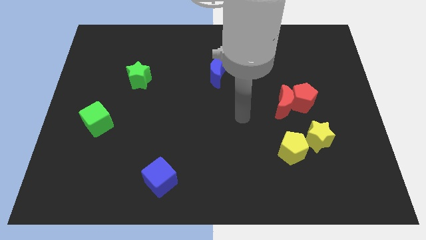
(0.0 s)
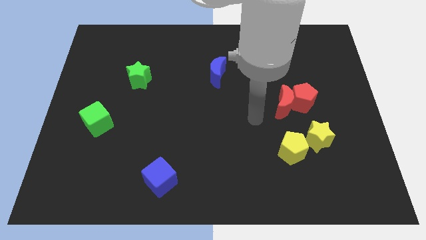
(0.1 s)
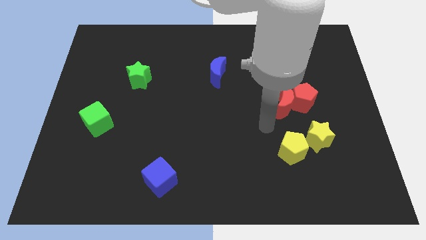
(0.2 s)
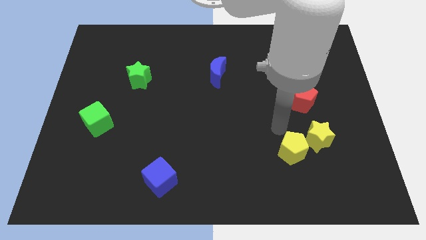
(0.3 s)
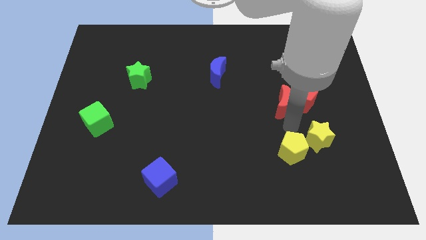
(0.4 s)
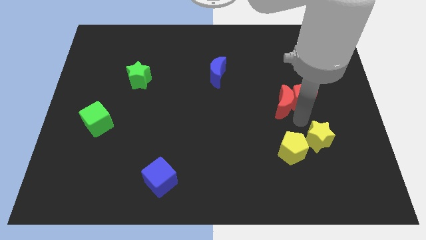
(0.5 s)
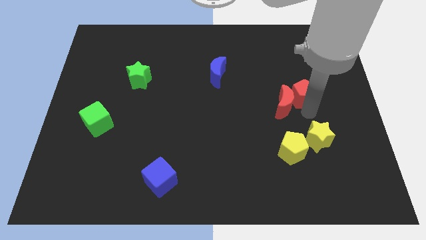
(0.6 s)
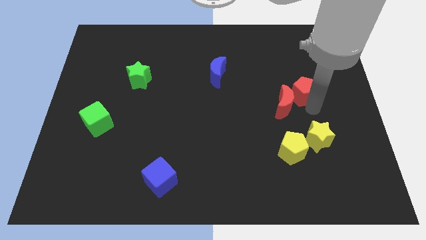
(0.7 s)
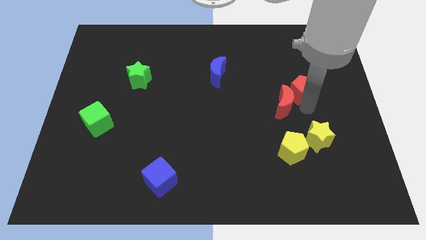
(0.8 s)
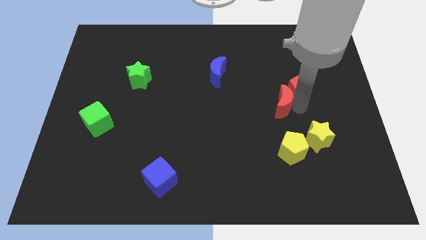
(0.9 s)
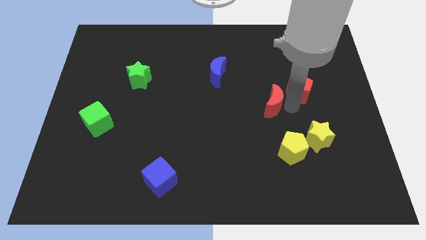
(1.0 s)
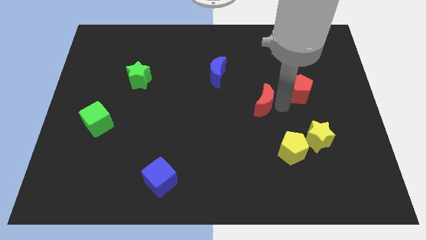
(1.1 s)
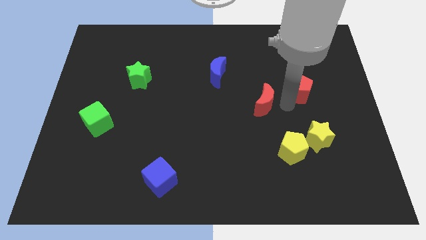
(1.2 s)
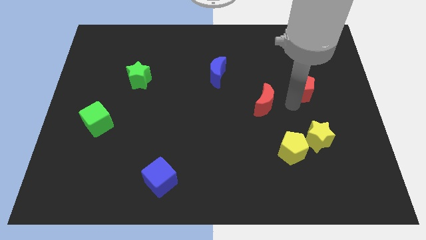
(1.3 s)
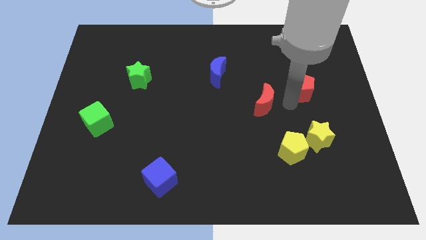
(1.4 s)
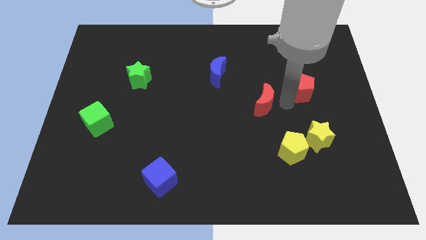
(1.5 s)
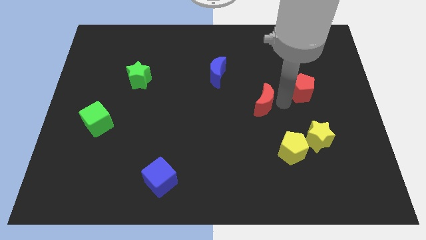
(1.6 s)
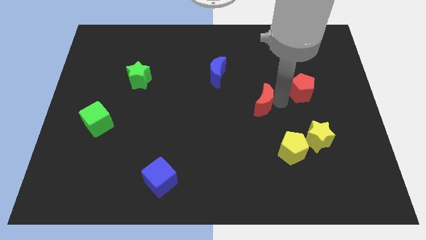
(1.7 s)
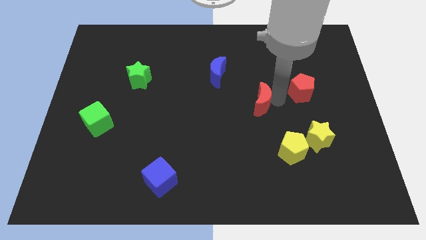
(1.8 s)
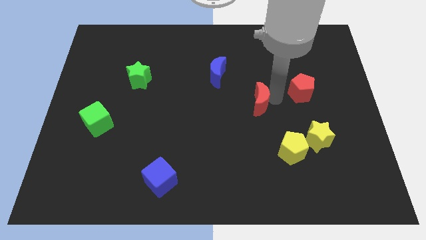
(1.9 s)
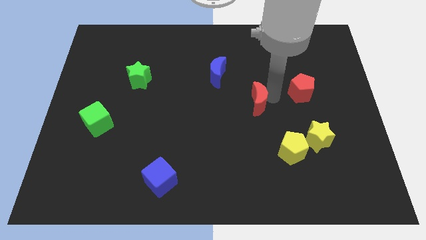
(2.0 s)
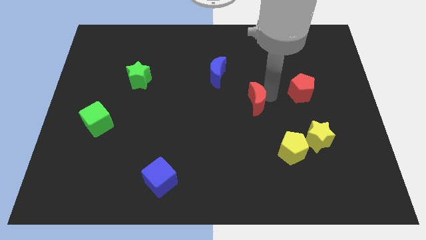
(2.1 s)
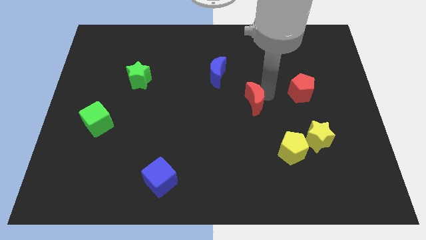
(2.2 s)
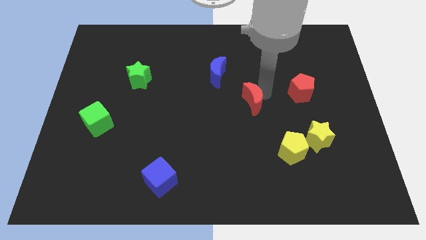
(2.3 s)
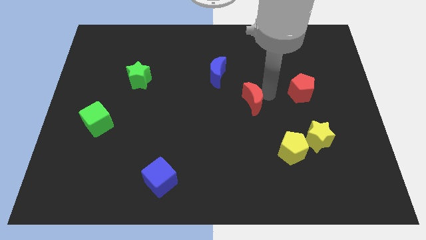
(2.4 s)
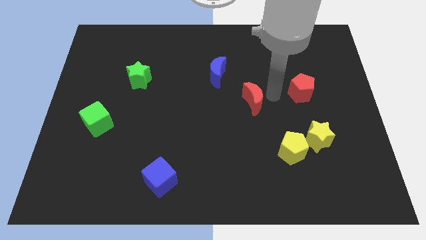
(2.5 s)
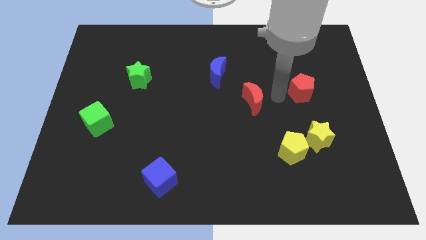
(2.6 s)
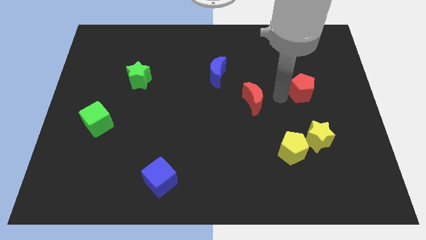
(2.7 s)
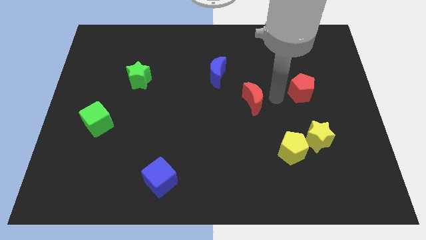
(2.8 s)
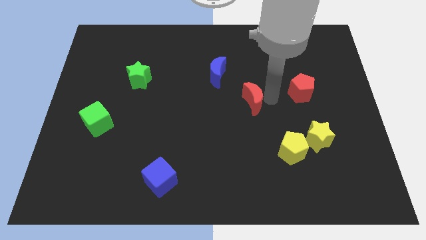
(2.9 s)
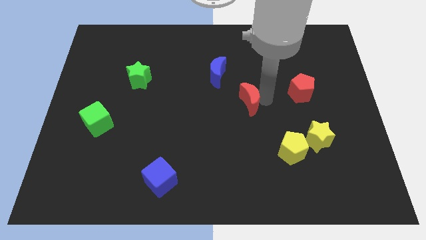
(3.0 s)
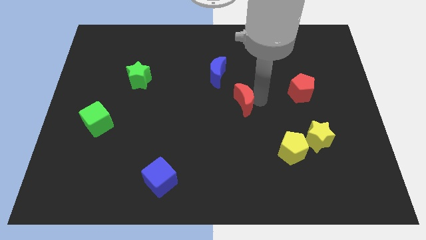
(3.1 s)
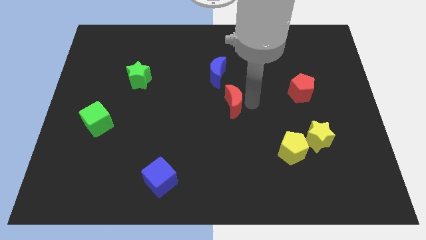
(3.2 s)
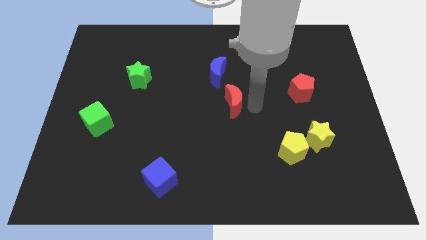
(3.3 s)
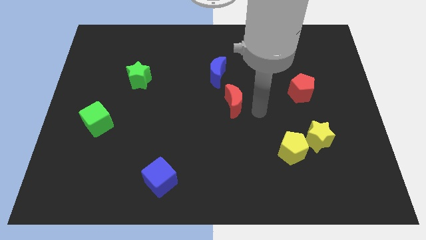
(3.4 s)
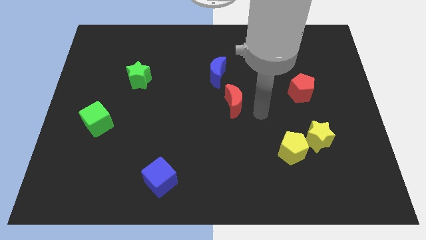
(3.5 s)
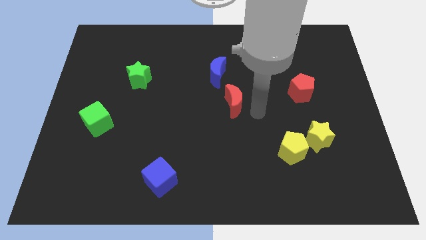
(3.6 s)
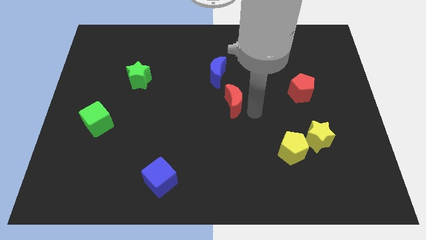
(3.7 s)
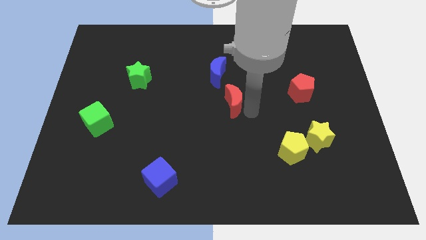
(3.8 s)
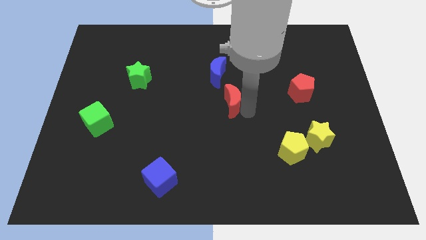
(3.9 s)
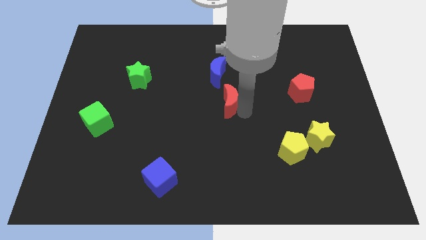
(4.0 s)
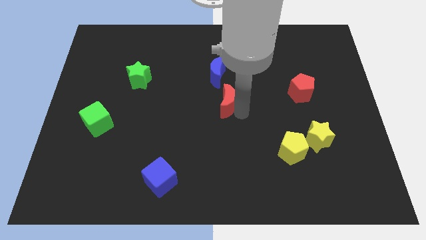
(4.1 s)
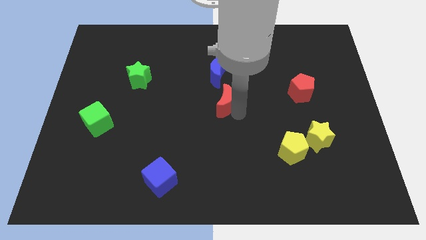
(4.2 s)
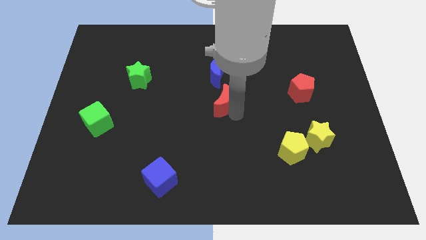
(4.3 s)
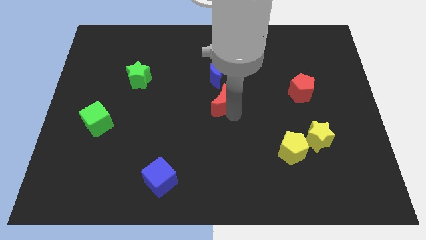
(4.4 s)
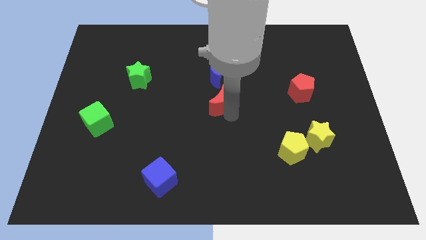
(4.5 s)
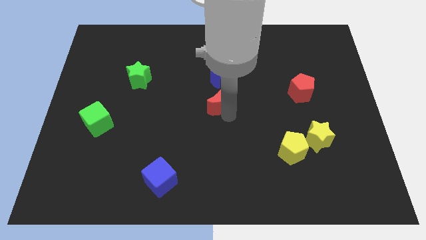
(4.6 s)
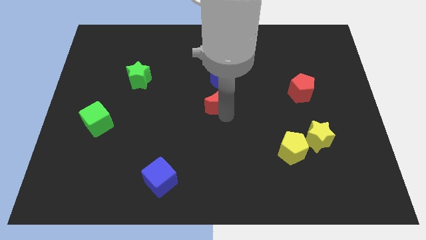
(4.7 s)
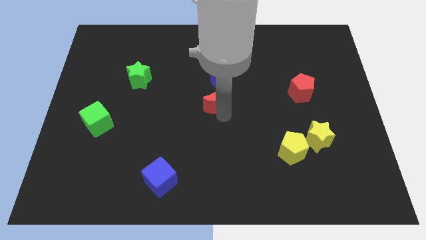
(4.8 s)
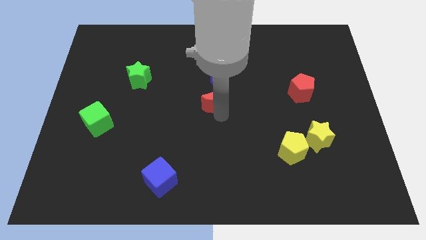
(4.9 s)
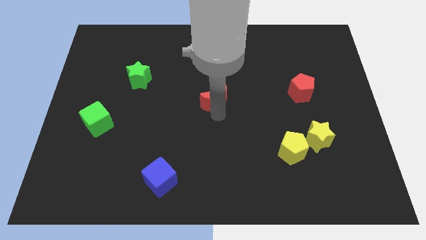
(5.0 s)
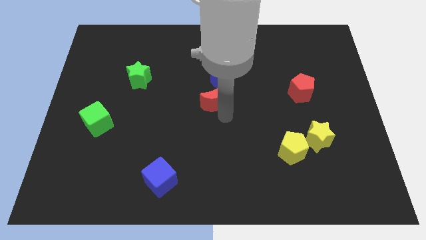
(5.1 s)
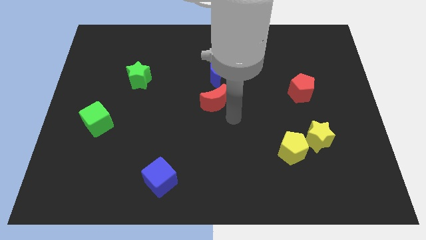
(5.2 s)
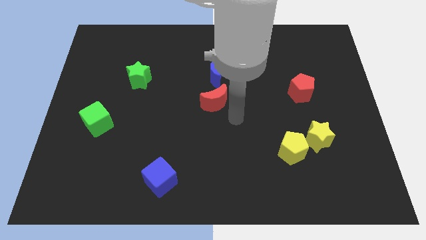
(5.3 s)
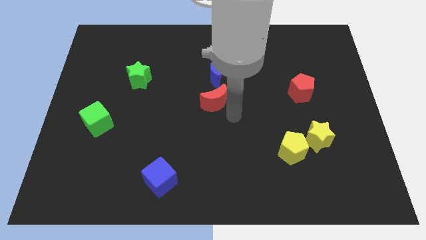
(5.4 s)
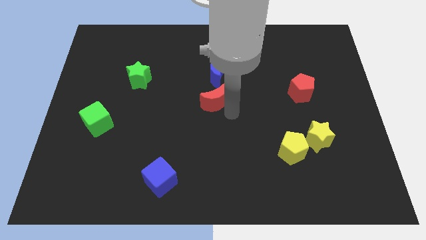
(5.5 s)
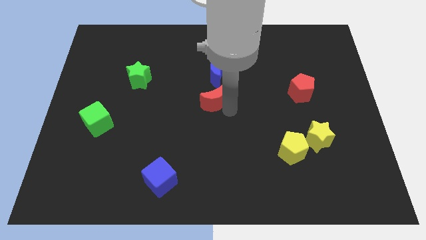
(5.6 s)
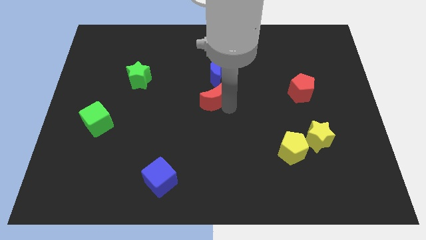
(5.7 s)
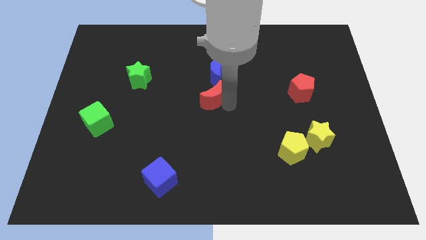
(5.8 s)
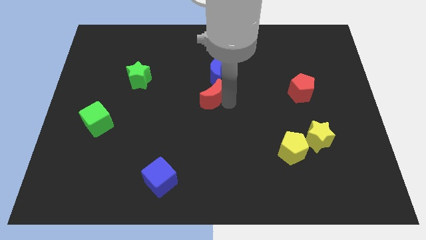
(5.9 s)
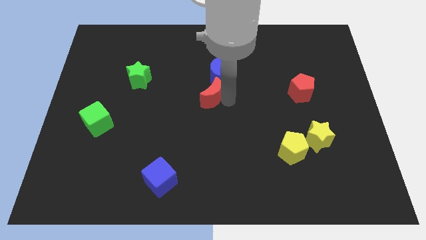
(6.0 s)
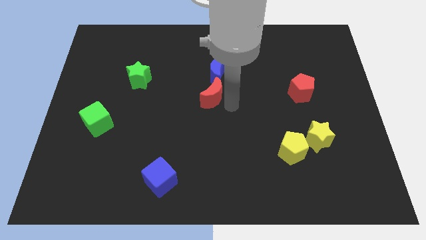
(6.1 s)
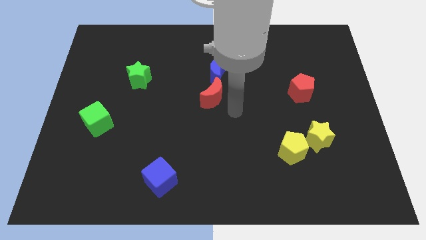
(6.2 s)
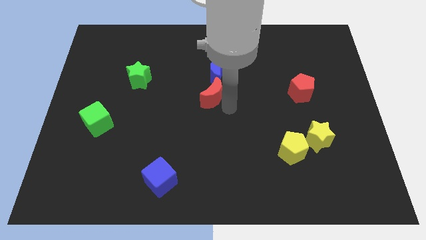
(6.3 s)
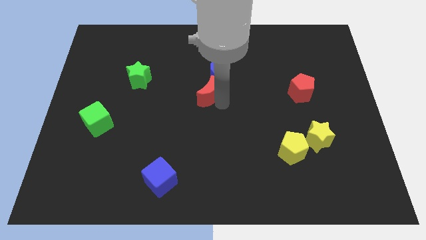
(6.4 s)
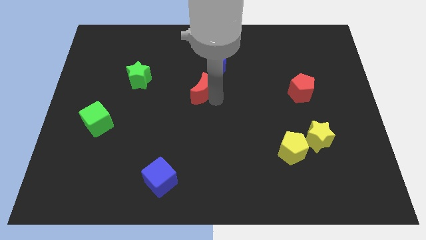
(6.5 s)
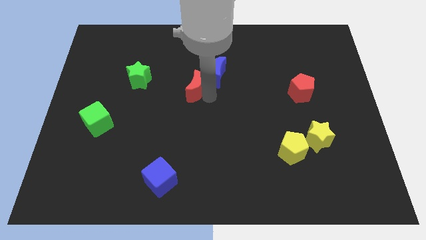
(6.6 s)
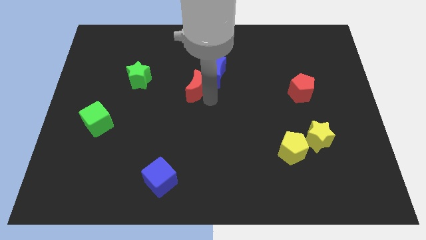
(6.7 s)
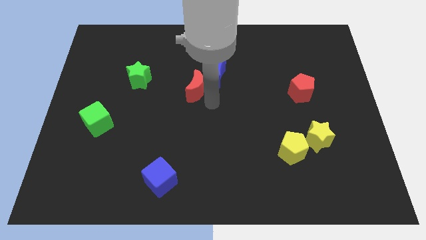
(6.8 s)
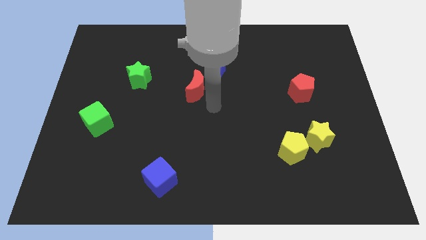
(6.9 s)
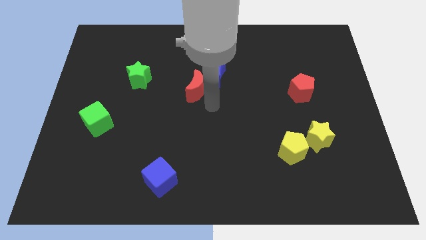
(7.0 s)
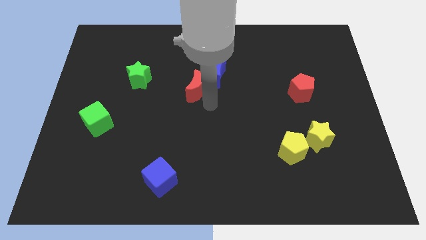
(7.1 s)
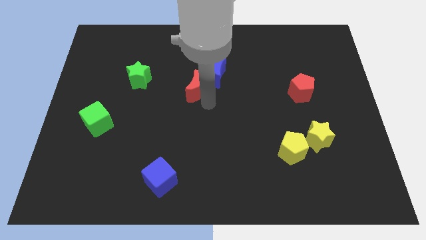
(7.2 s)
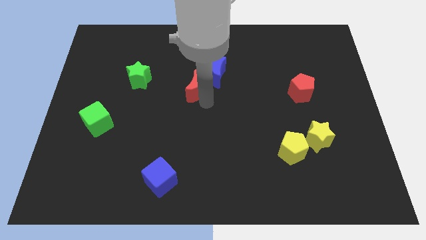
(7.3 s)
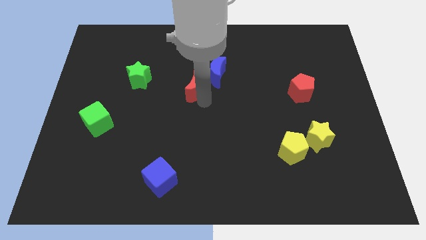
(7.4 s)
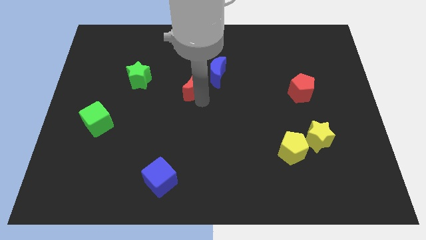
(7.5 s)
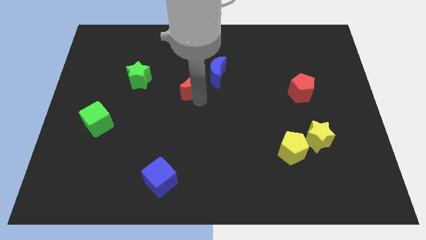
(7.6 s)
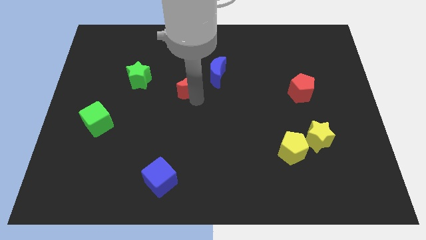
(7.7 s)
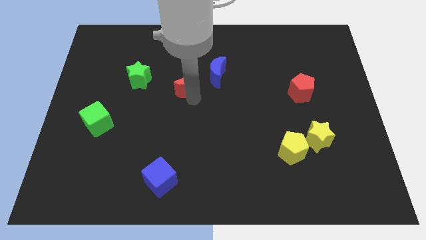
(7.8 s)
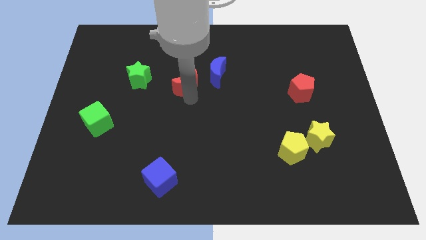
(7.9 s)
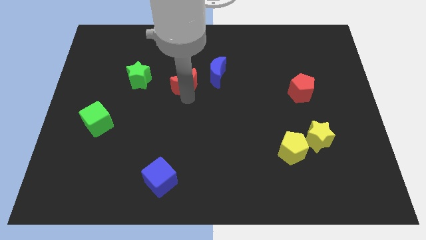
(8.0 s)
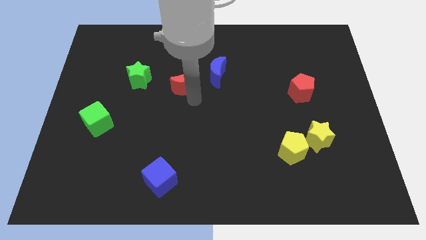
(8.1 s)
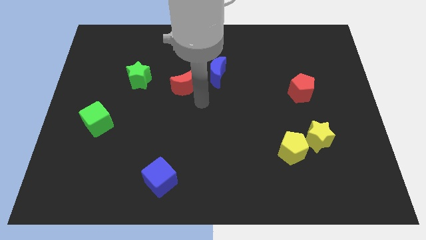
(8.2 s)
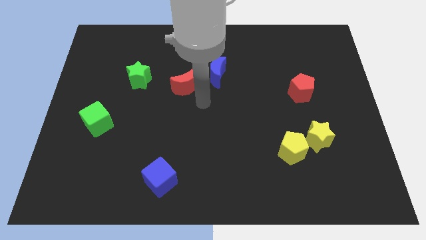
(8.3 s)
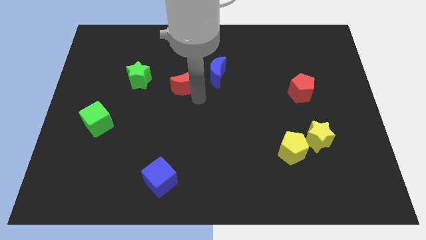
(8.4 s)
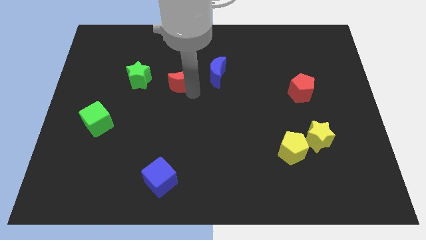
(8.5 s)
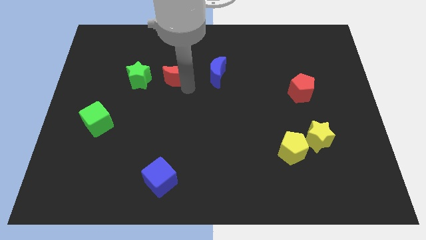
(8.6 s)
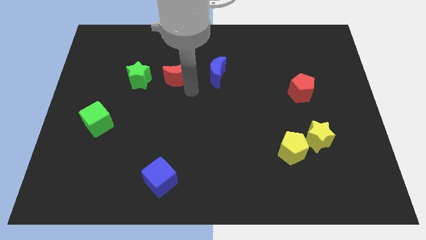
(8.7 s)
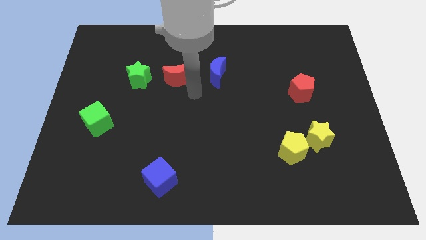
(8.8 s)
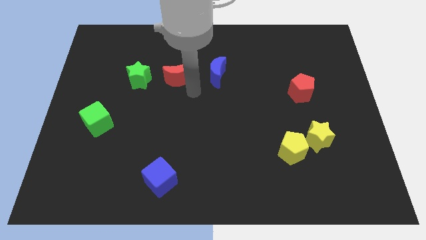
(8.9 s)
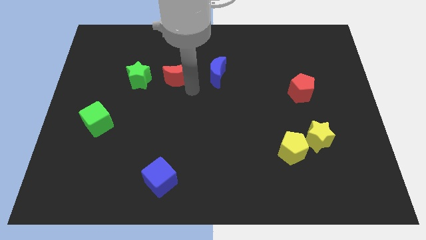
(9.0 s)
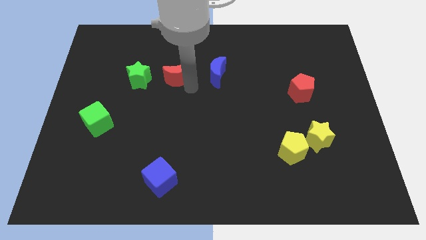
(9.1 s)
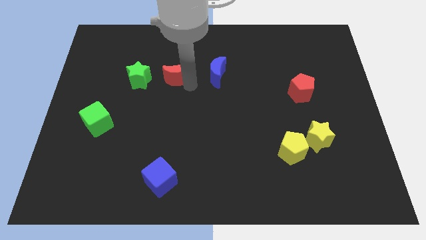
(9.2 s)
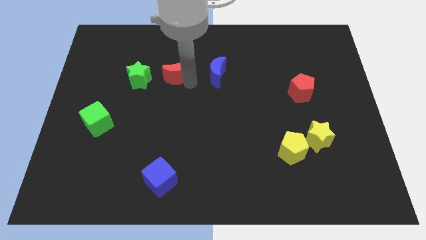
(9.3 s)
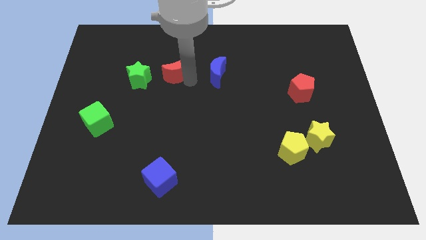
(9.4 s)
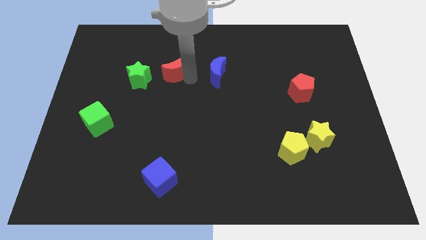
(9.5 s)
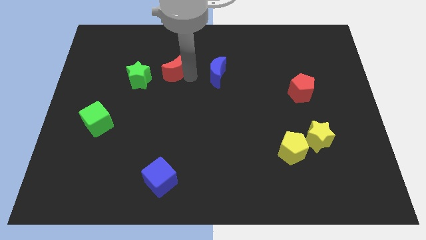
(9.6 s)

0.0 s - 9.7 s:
slide the red moon diagonally up and to the right of the green star
